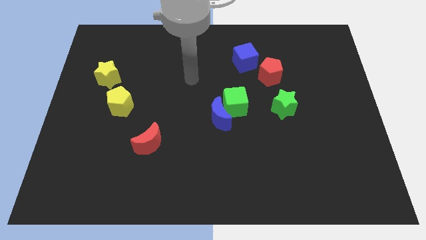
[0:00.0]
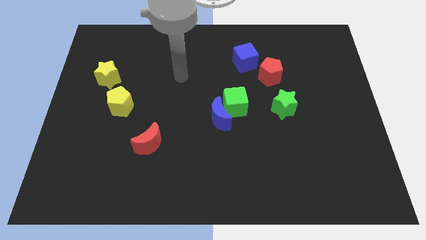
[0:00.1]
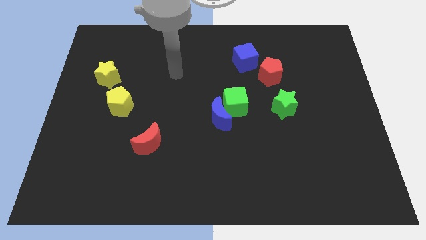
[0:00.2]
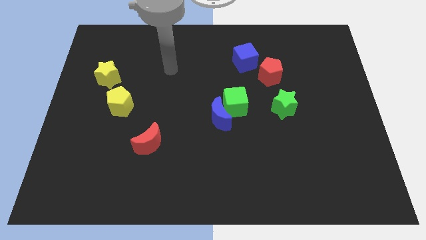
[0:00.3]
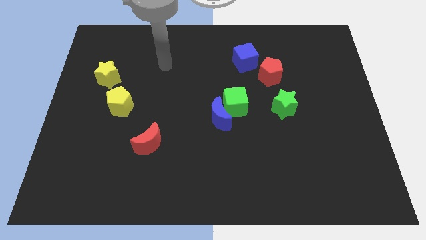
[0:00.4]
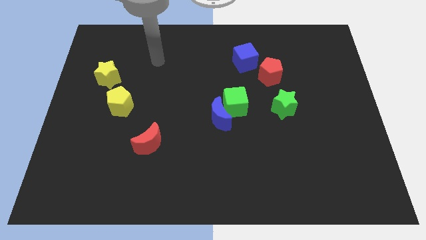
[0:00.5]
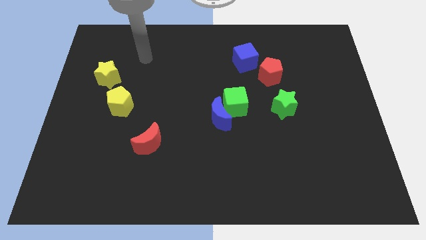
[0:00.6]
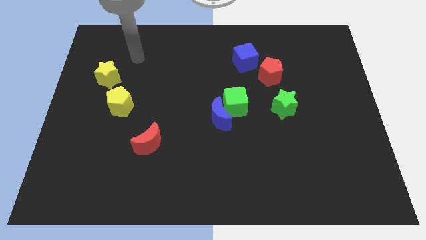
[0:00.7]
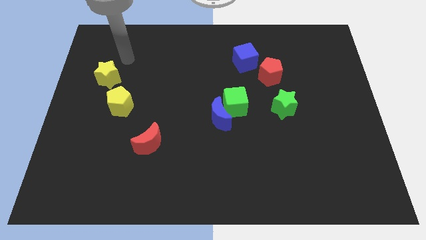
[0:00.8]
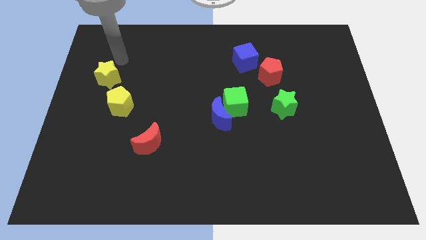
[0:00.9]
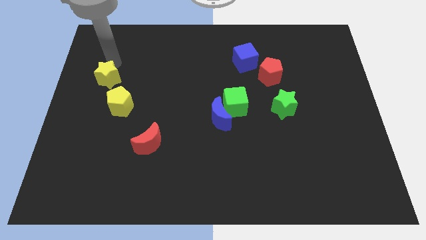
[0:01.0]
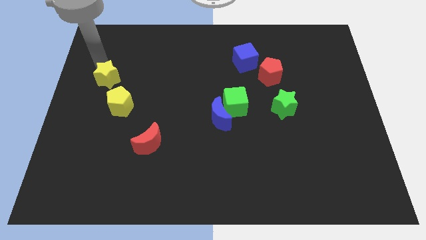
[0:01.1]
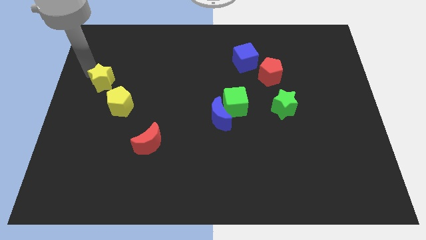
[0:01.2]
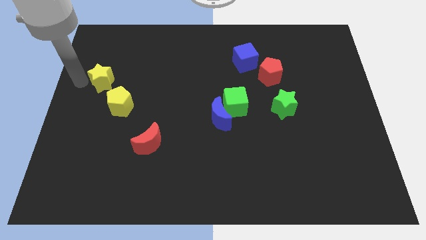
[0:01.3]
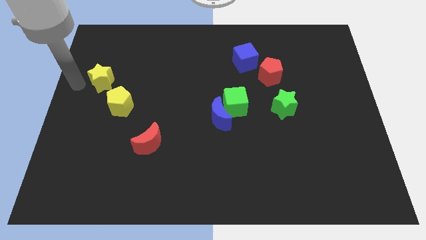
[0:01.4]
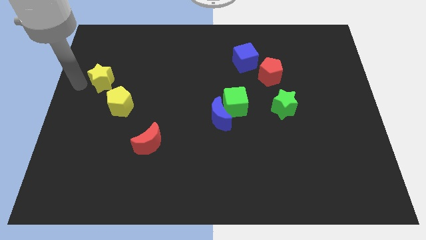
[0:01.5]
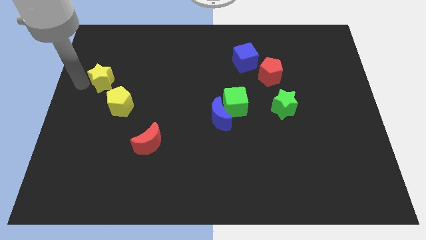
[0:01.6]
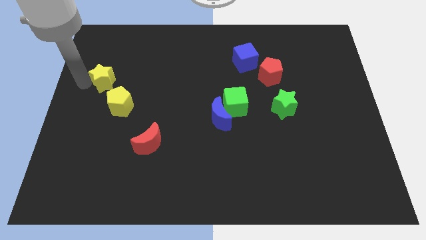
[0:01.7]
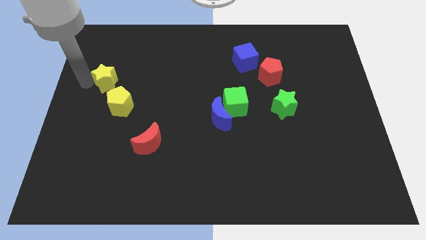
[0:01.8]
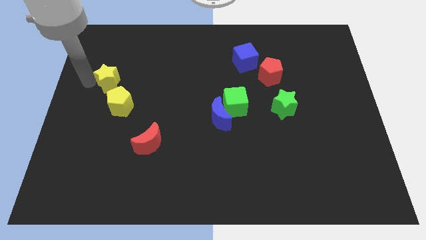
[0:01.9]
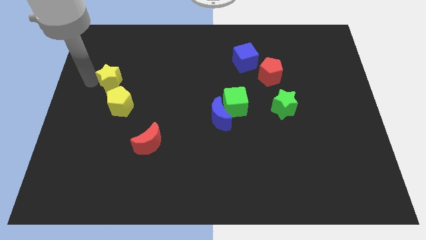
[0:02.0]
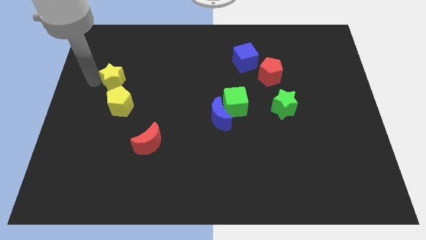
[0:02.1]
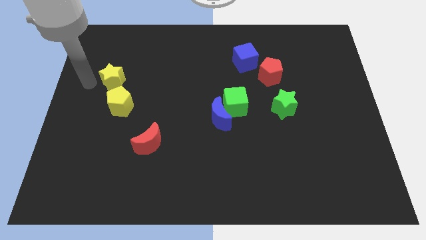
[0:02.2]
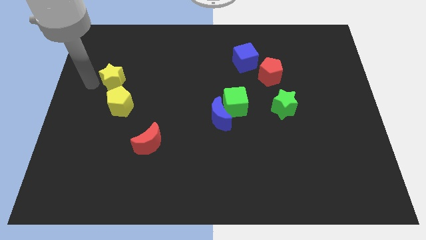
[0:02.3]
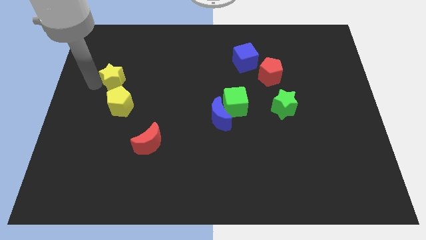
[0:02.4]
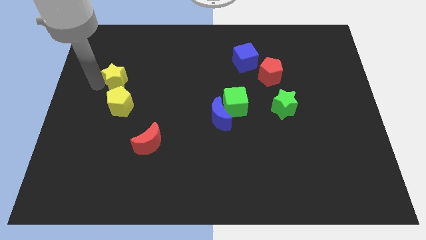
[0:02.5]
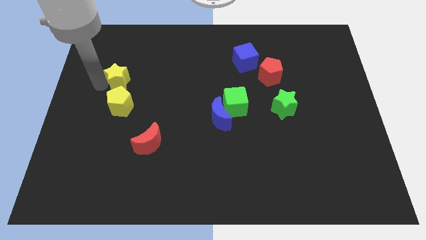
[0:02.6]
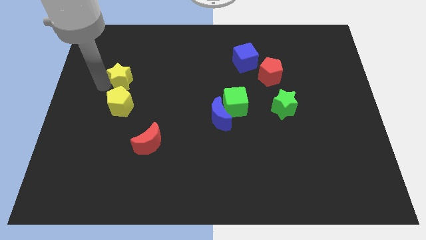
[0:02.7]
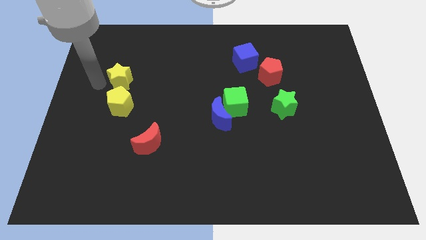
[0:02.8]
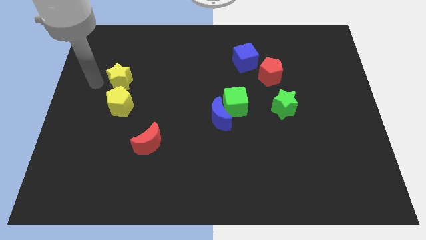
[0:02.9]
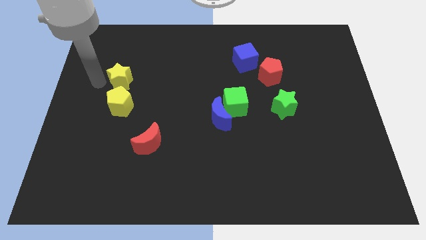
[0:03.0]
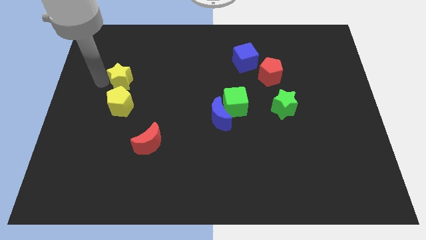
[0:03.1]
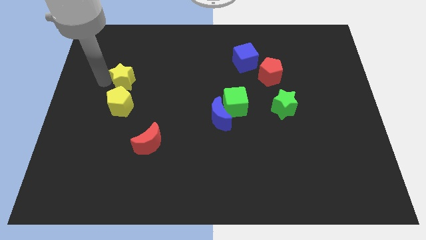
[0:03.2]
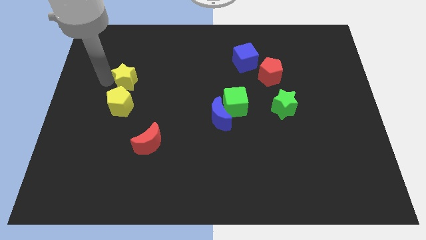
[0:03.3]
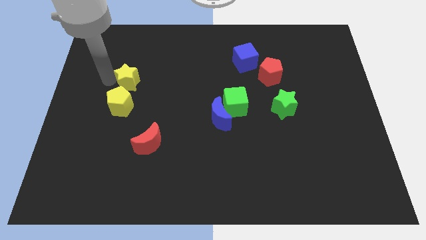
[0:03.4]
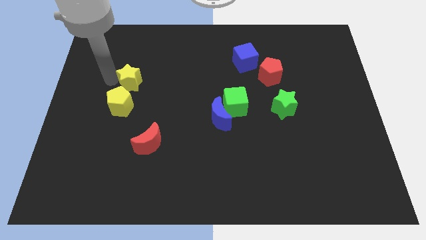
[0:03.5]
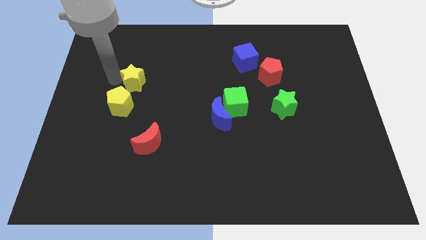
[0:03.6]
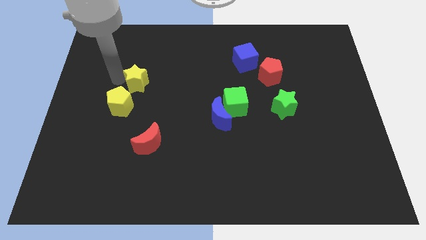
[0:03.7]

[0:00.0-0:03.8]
move the yellow star to the right a little bit

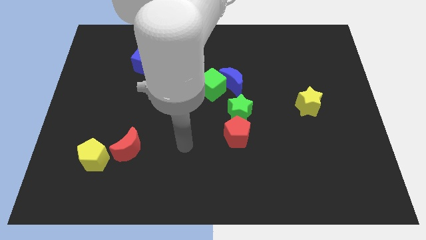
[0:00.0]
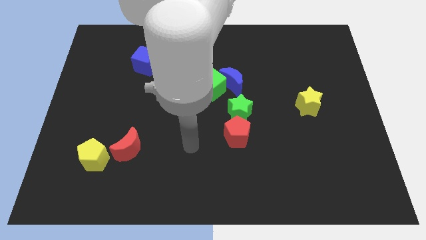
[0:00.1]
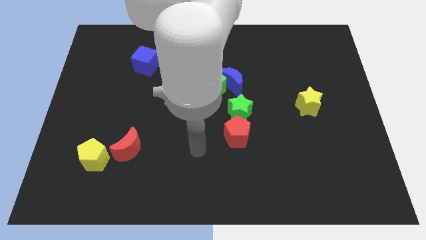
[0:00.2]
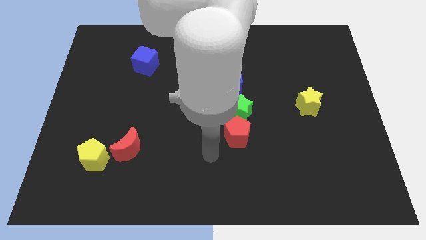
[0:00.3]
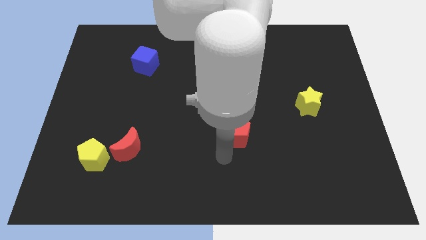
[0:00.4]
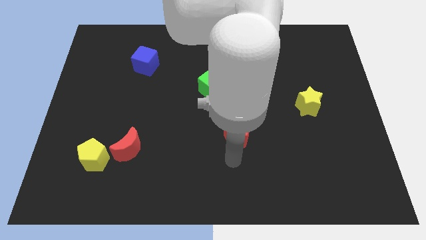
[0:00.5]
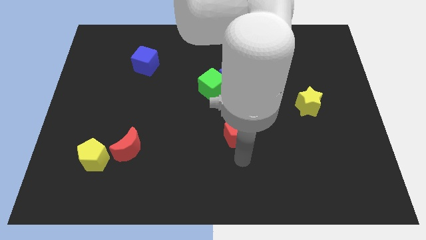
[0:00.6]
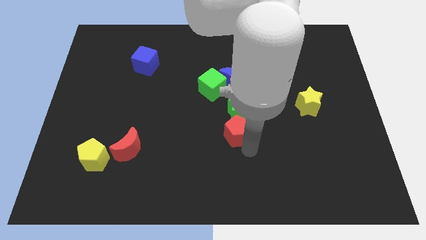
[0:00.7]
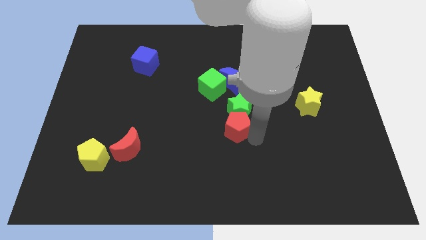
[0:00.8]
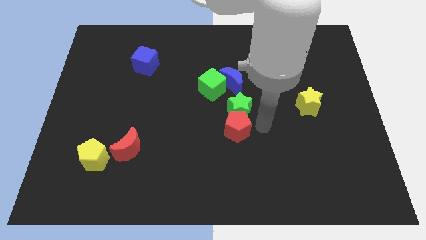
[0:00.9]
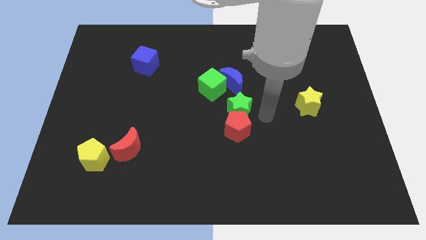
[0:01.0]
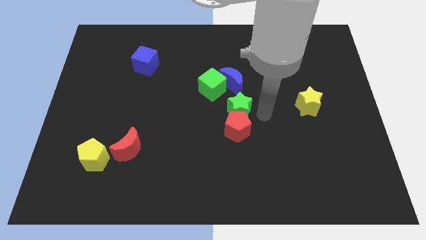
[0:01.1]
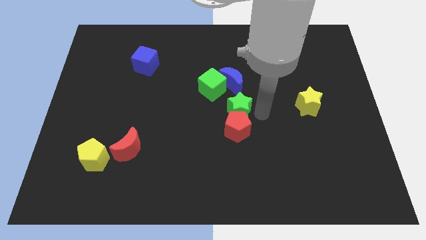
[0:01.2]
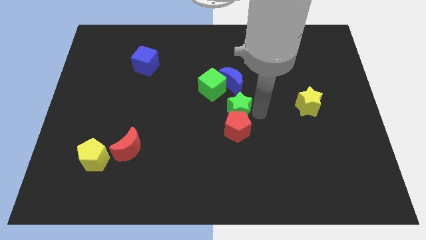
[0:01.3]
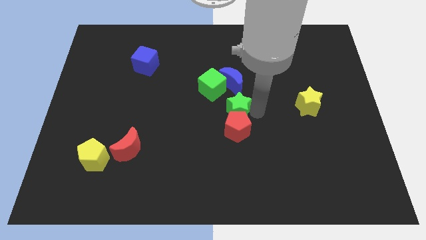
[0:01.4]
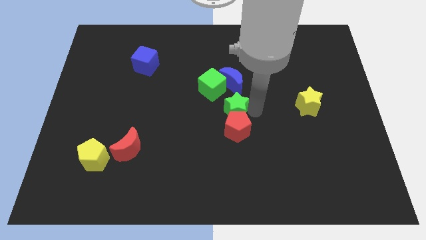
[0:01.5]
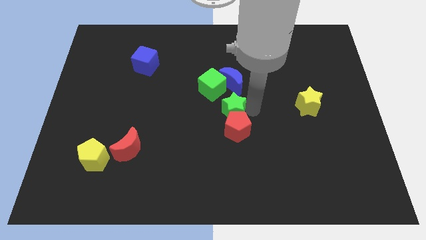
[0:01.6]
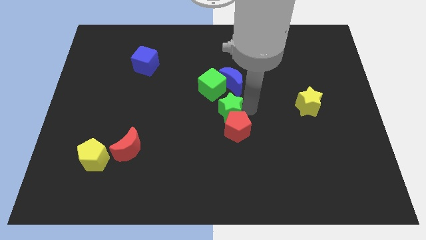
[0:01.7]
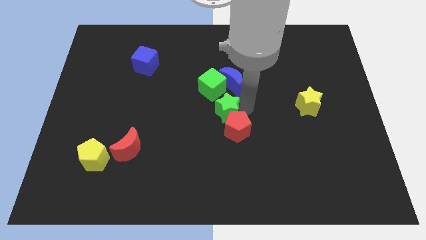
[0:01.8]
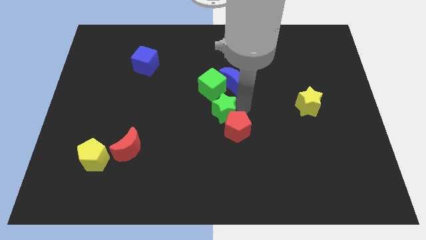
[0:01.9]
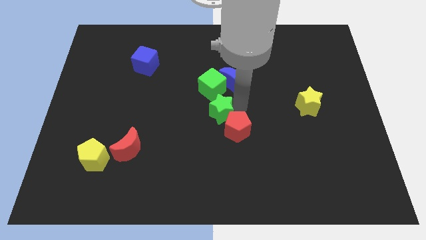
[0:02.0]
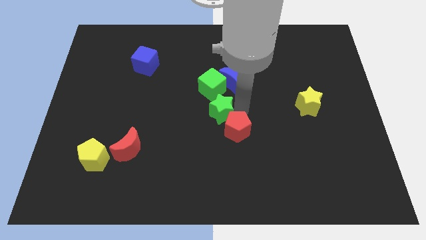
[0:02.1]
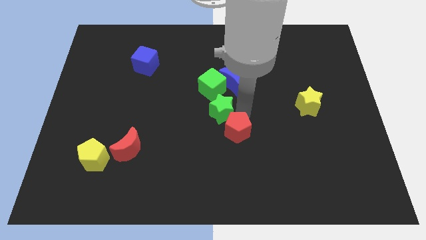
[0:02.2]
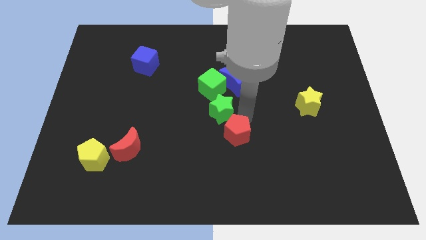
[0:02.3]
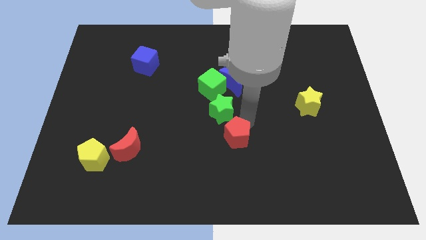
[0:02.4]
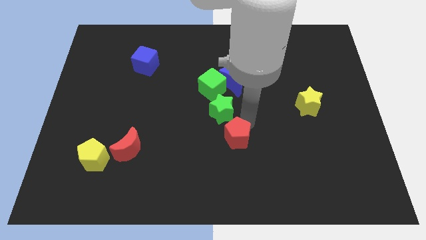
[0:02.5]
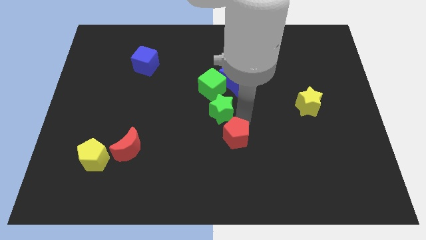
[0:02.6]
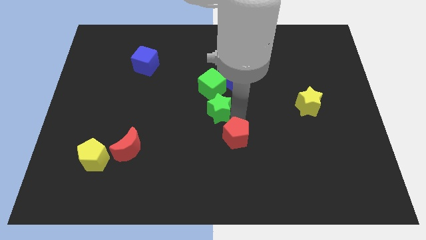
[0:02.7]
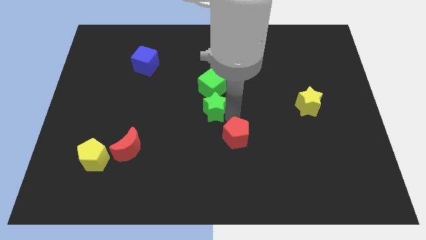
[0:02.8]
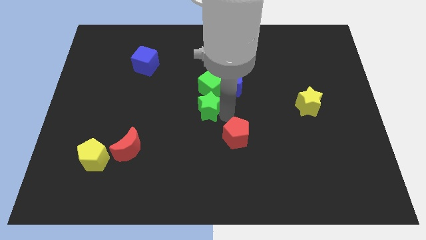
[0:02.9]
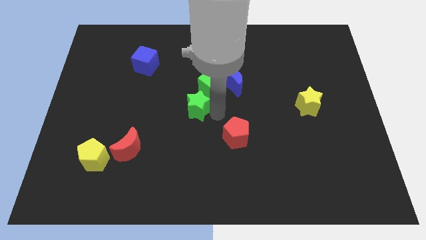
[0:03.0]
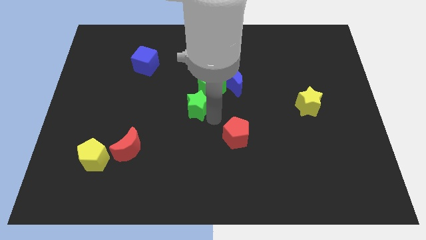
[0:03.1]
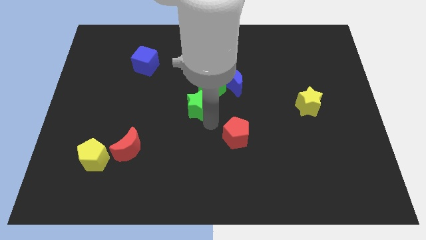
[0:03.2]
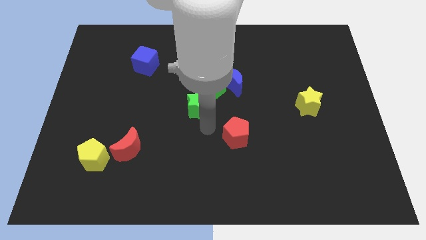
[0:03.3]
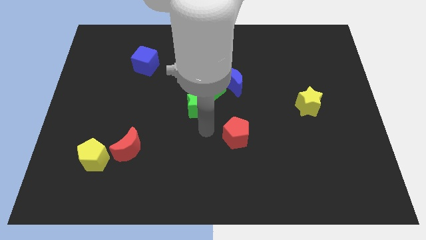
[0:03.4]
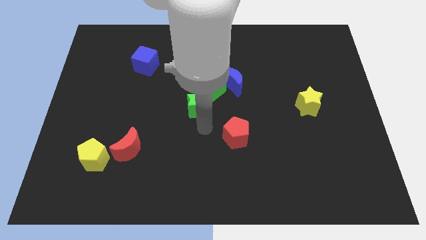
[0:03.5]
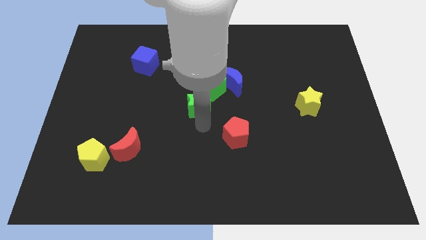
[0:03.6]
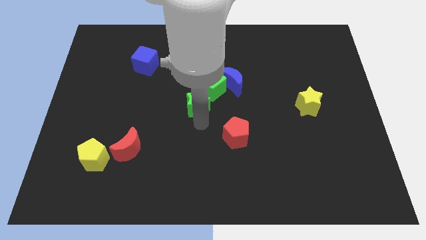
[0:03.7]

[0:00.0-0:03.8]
slide the green star upwards and to the left a little

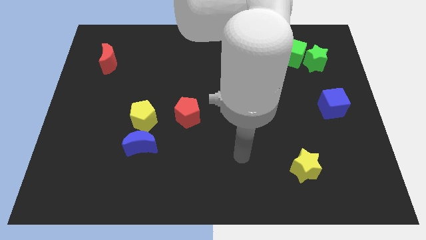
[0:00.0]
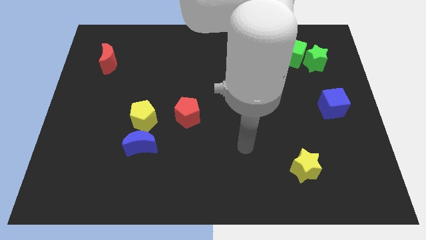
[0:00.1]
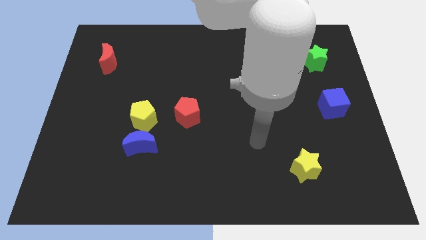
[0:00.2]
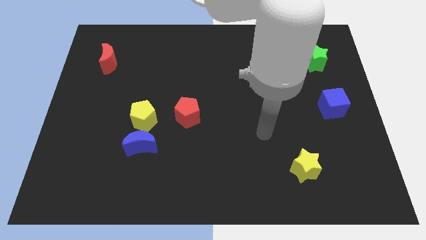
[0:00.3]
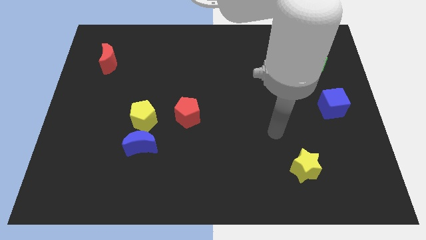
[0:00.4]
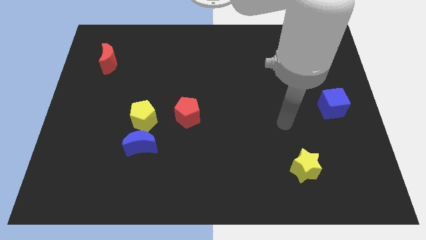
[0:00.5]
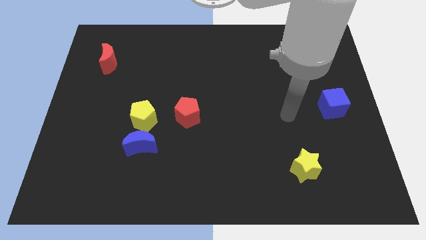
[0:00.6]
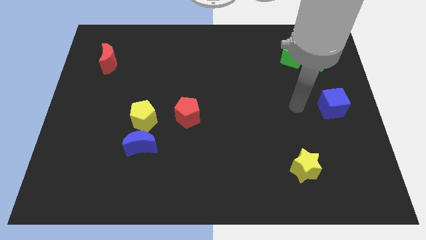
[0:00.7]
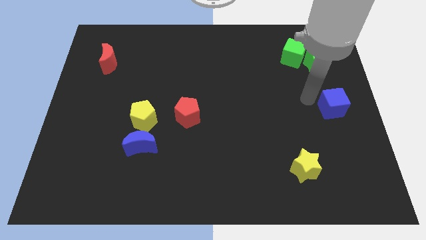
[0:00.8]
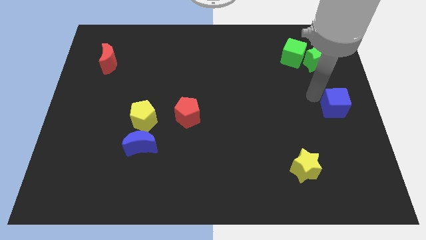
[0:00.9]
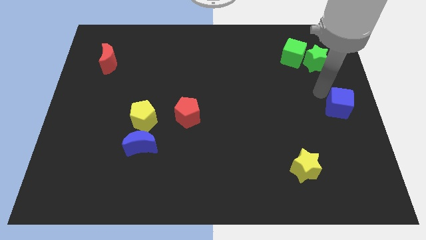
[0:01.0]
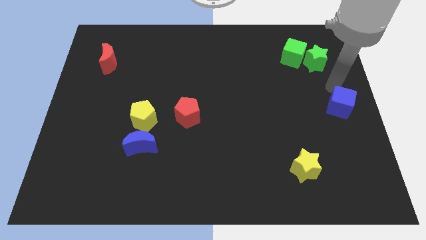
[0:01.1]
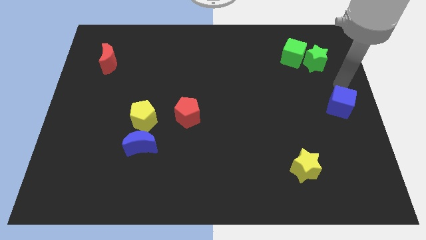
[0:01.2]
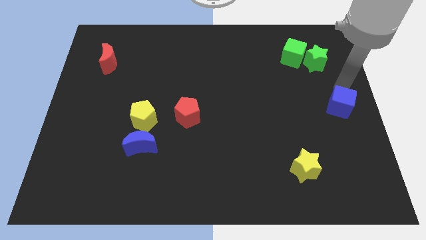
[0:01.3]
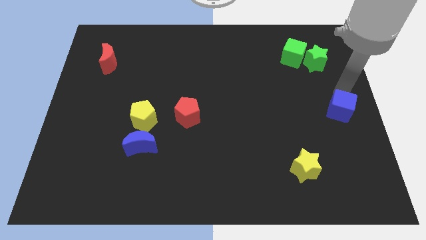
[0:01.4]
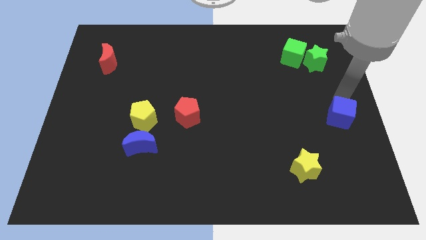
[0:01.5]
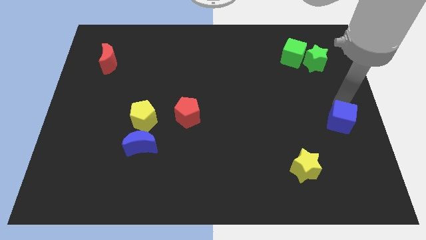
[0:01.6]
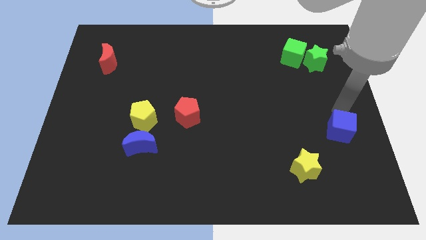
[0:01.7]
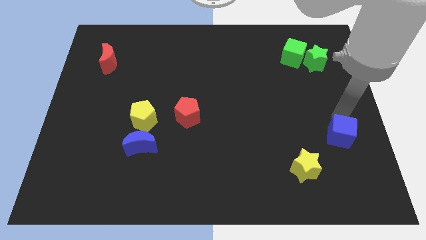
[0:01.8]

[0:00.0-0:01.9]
slide the blue cube somewhat down
